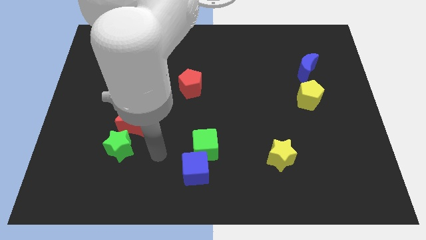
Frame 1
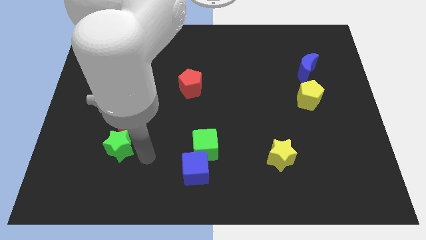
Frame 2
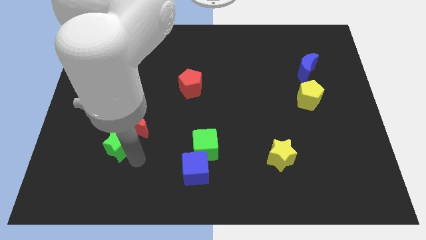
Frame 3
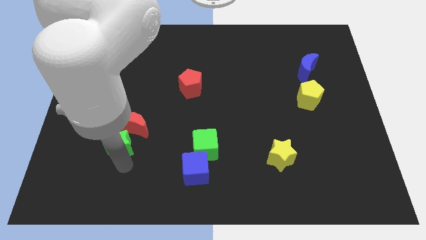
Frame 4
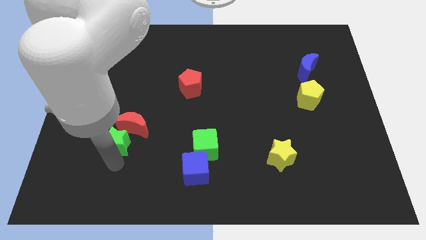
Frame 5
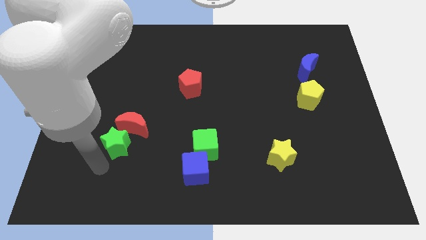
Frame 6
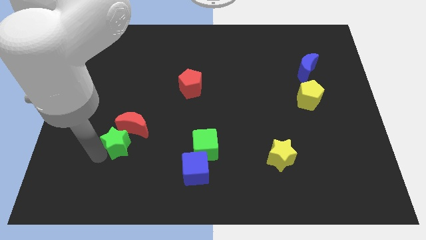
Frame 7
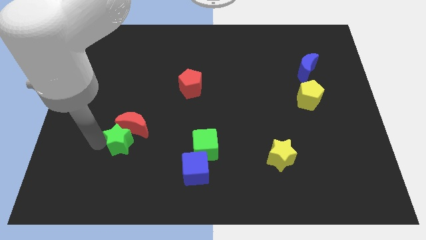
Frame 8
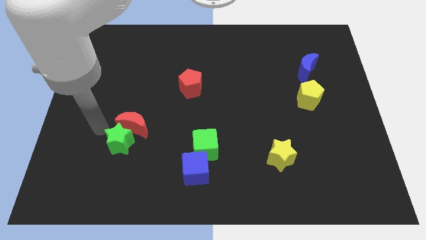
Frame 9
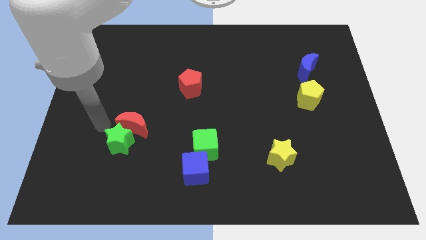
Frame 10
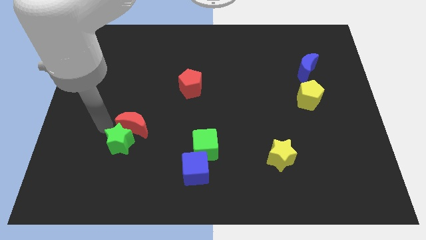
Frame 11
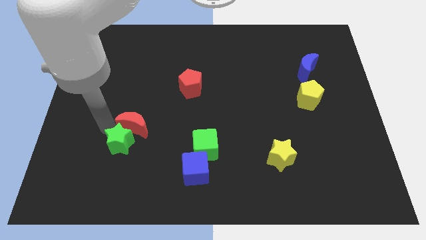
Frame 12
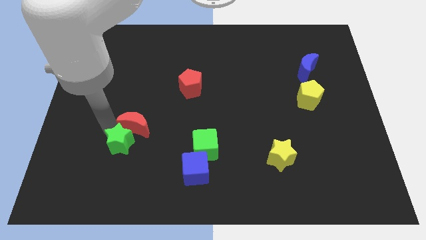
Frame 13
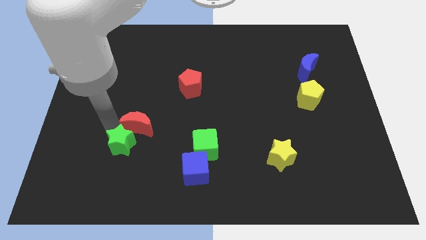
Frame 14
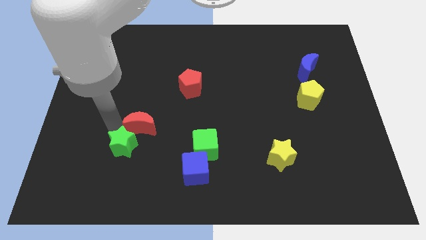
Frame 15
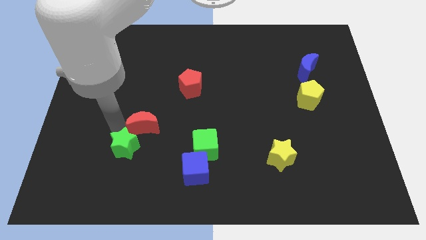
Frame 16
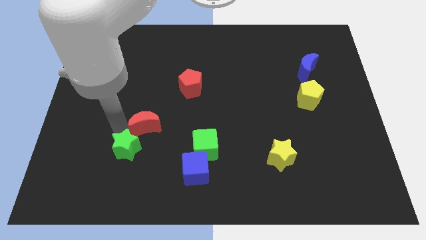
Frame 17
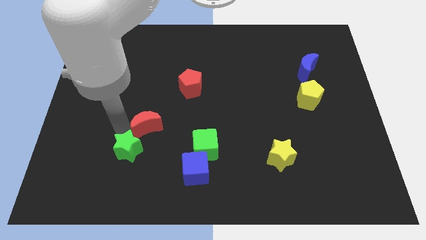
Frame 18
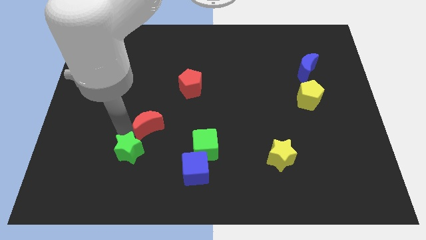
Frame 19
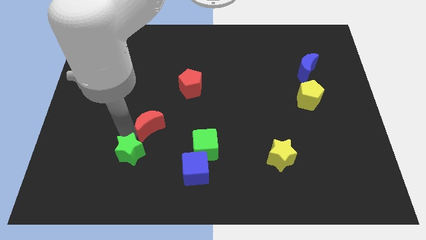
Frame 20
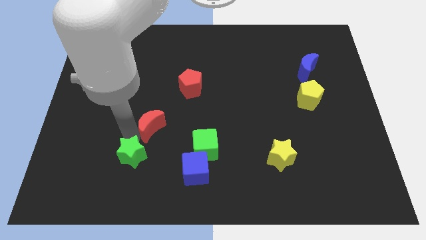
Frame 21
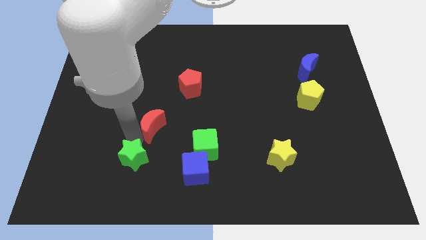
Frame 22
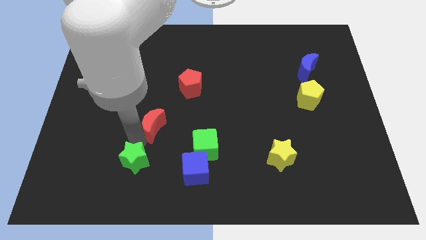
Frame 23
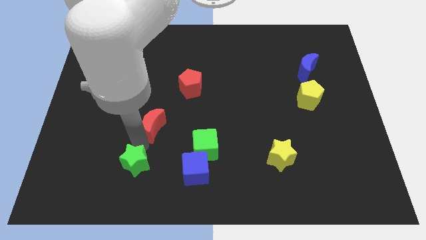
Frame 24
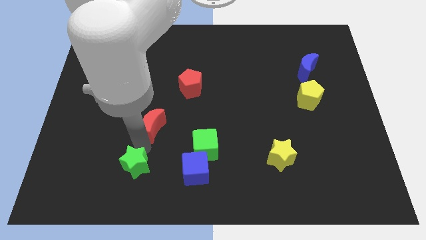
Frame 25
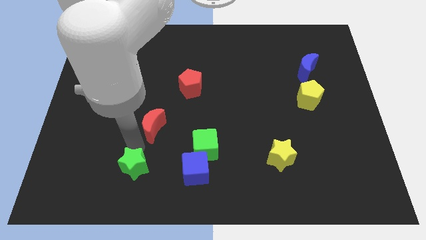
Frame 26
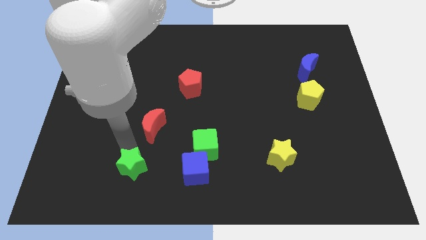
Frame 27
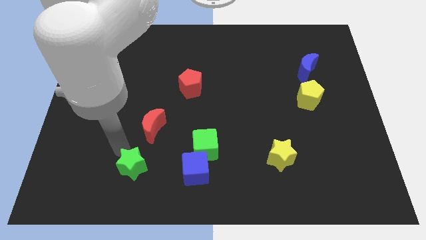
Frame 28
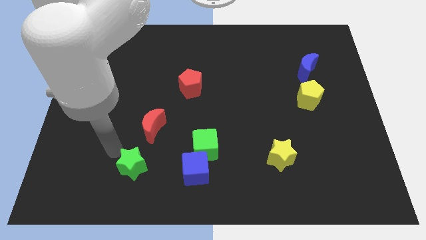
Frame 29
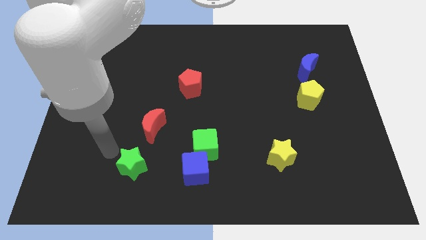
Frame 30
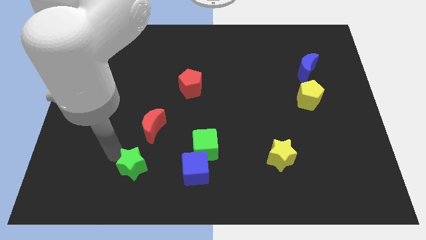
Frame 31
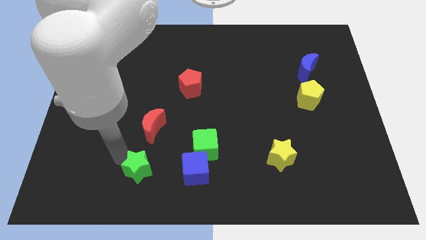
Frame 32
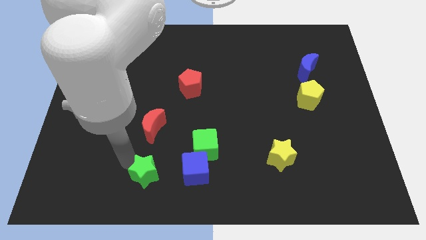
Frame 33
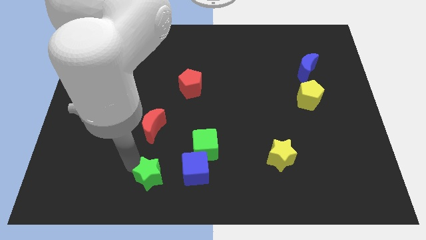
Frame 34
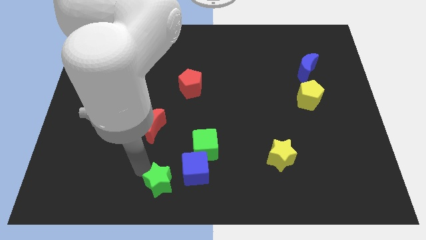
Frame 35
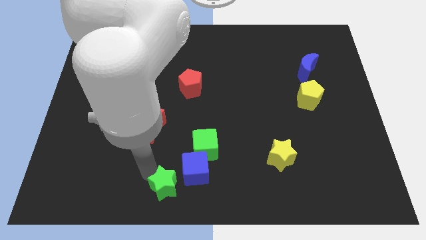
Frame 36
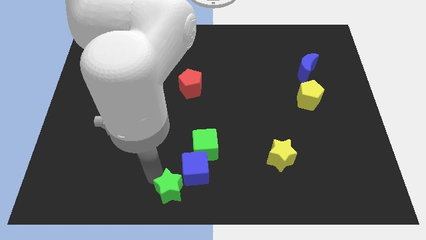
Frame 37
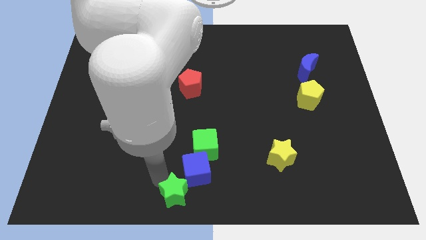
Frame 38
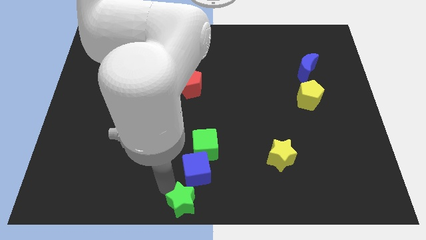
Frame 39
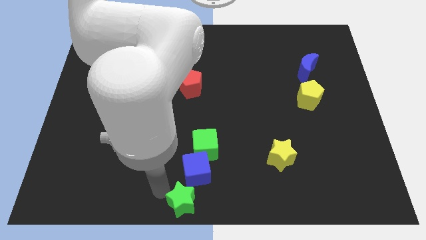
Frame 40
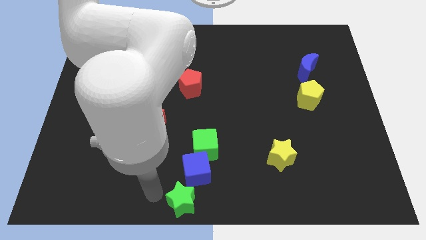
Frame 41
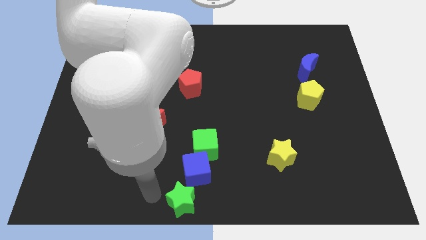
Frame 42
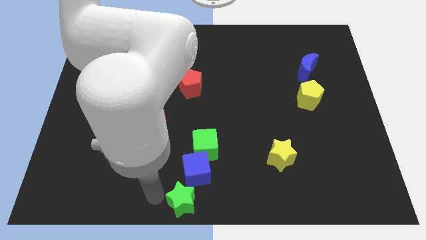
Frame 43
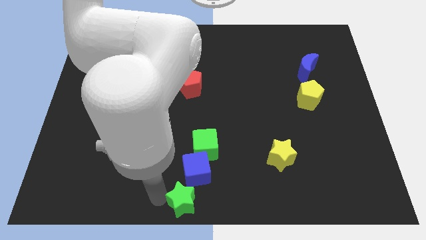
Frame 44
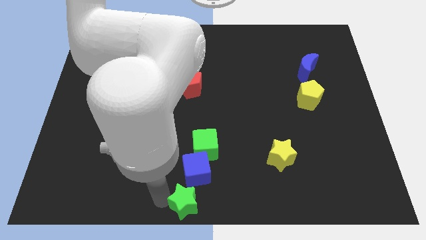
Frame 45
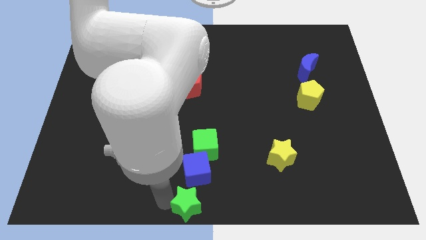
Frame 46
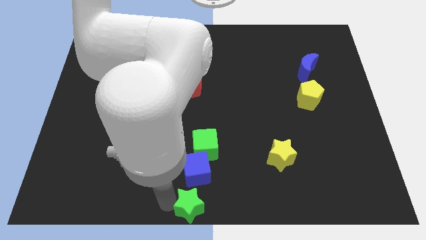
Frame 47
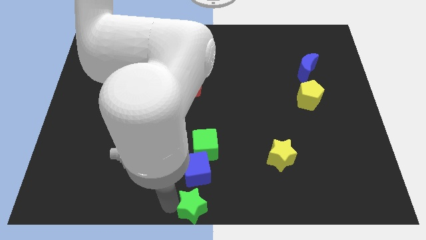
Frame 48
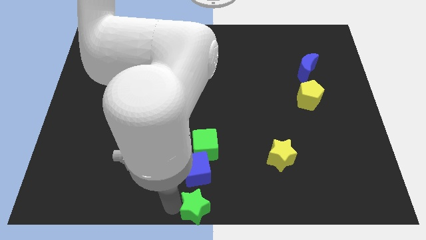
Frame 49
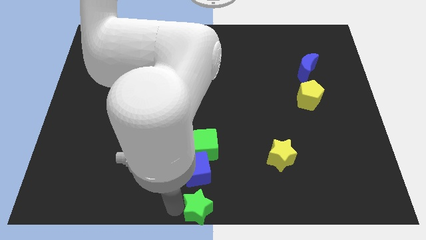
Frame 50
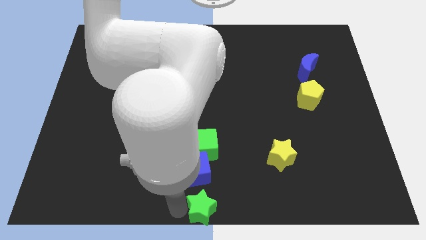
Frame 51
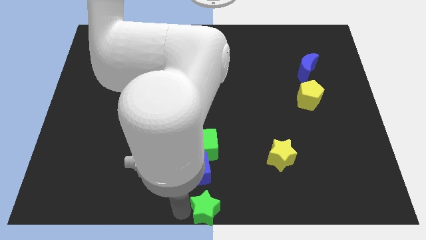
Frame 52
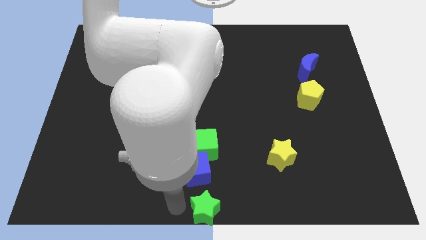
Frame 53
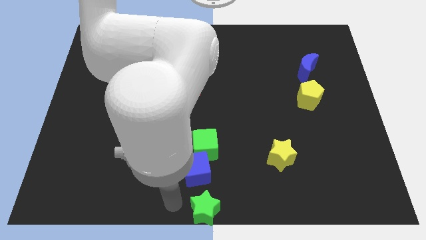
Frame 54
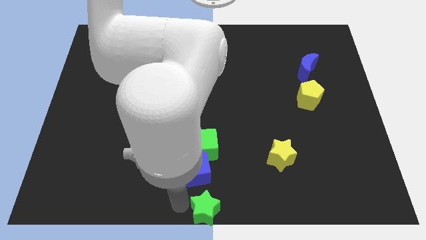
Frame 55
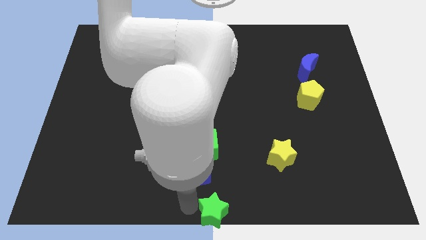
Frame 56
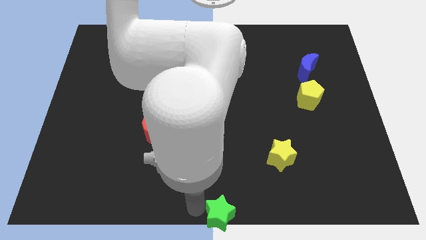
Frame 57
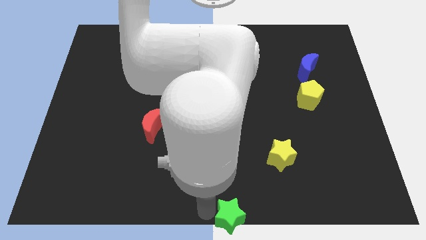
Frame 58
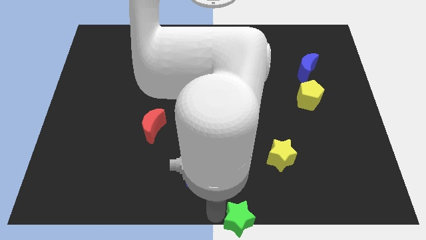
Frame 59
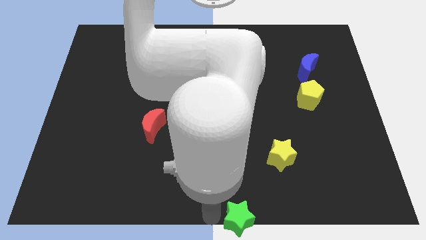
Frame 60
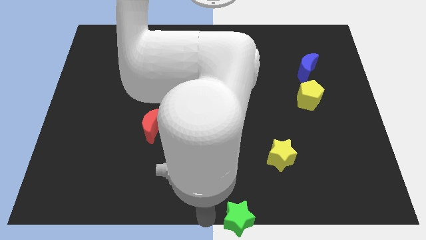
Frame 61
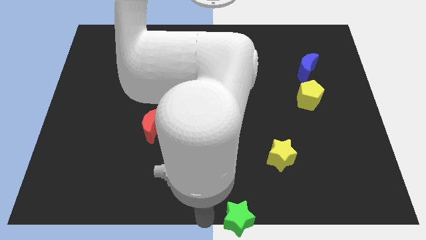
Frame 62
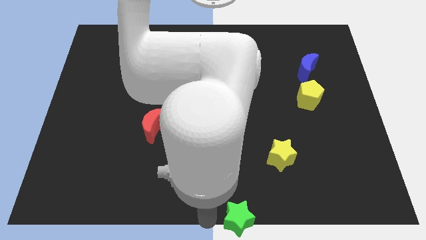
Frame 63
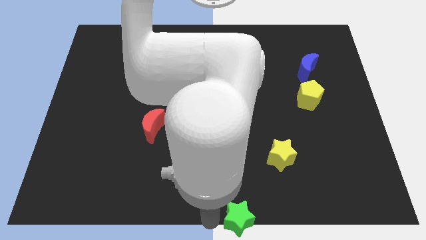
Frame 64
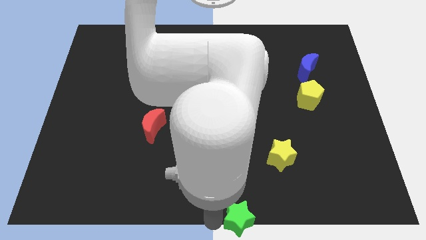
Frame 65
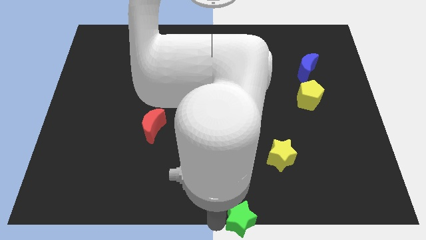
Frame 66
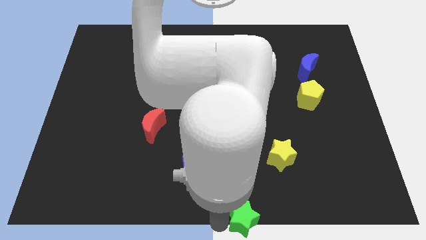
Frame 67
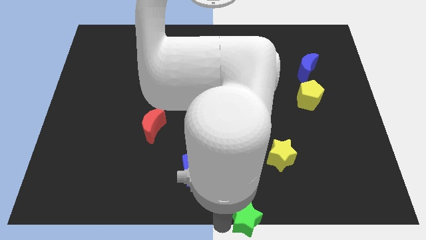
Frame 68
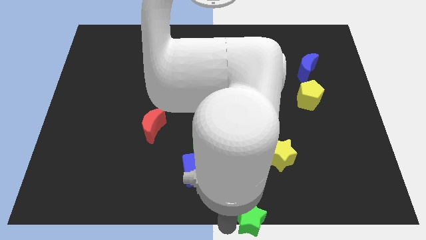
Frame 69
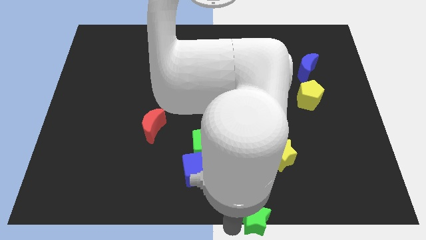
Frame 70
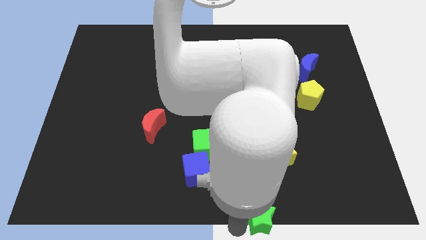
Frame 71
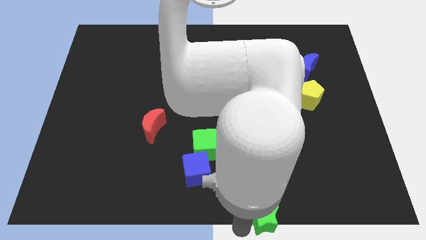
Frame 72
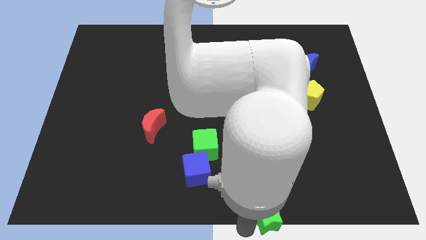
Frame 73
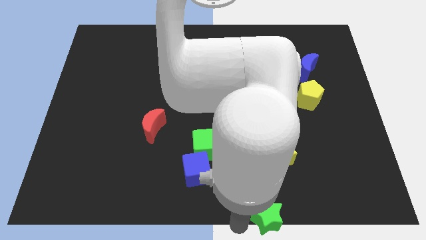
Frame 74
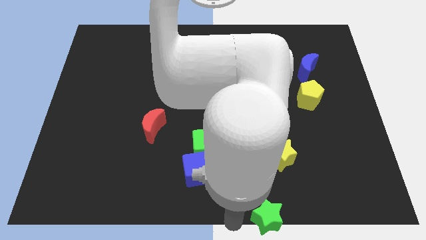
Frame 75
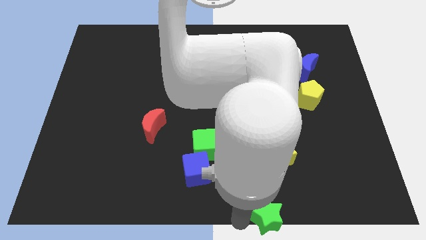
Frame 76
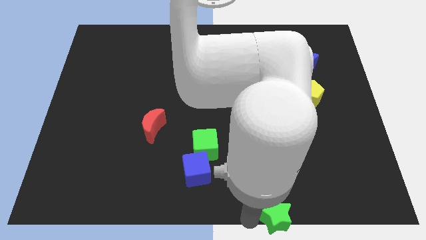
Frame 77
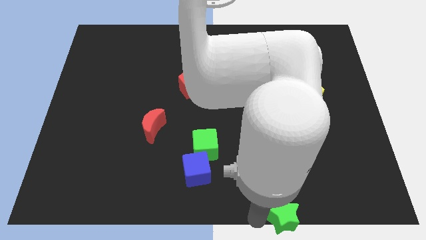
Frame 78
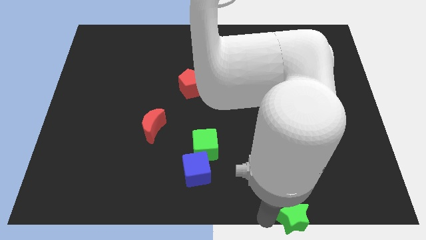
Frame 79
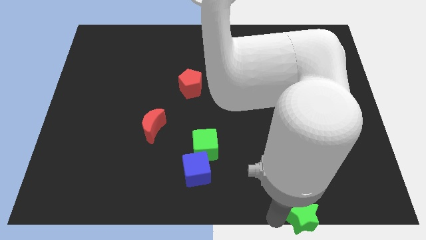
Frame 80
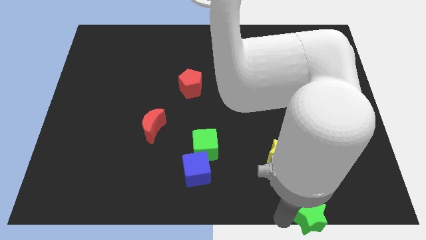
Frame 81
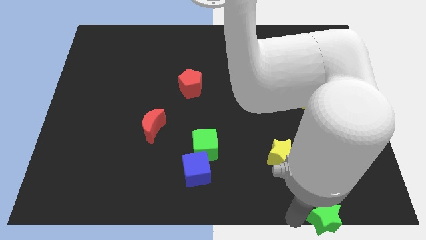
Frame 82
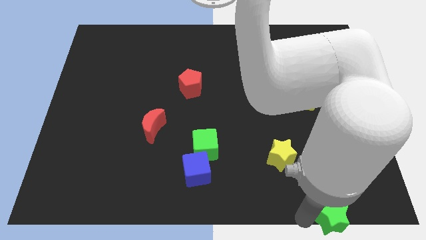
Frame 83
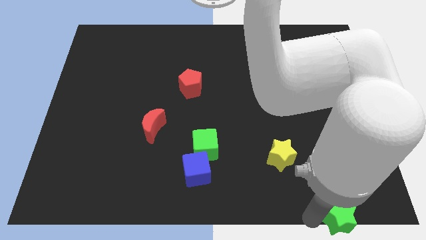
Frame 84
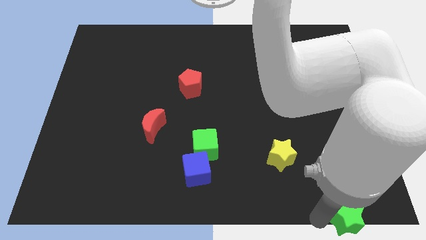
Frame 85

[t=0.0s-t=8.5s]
move the green star to the bottom right corner
